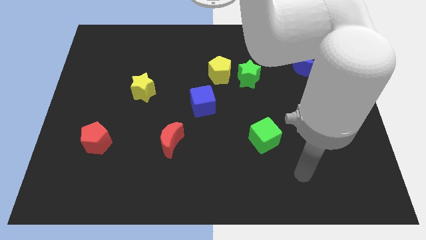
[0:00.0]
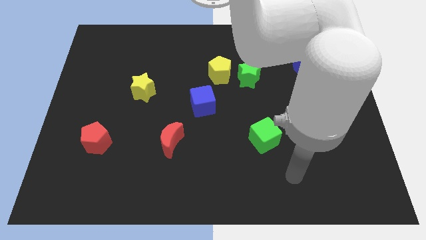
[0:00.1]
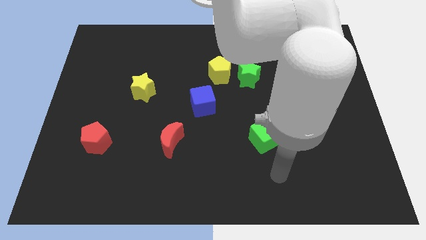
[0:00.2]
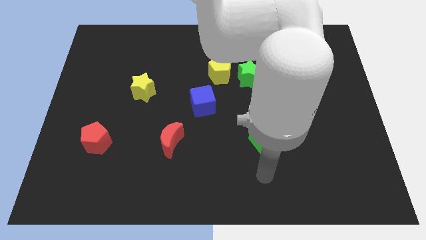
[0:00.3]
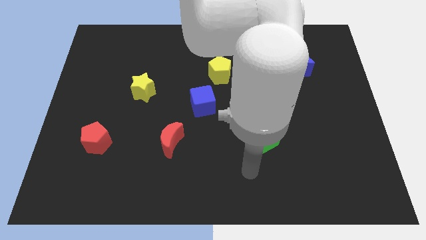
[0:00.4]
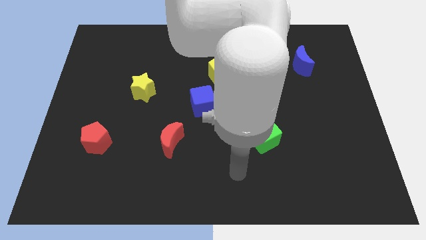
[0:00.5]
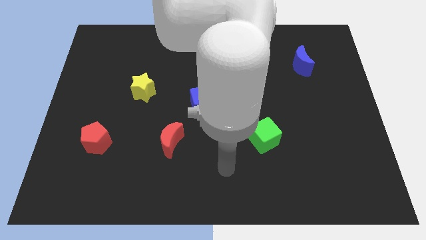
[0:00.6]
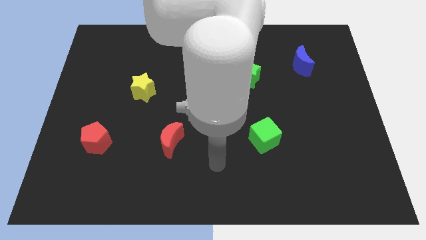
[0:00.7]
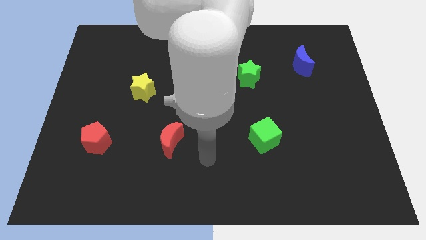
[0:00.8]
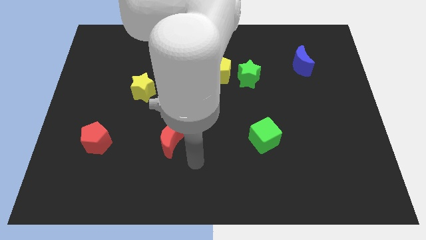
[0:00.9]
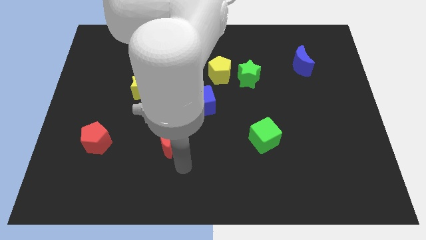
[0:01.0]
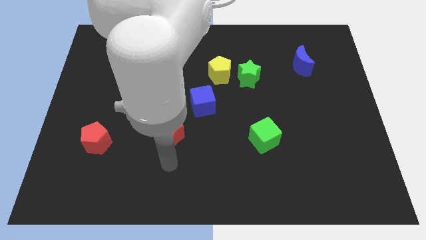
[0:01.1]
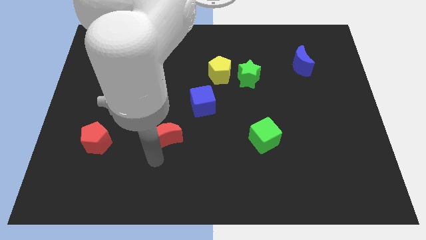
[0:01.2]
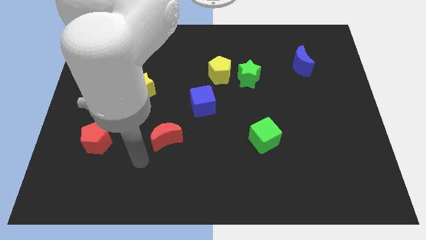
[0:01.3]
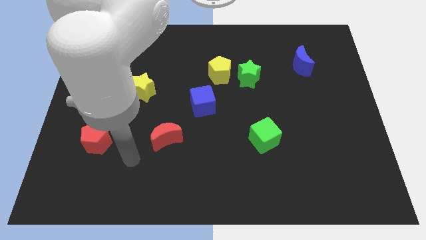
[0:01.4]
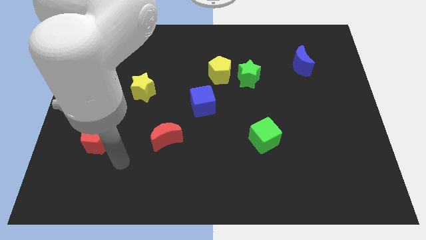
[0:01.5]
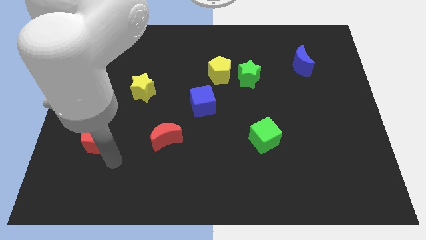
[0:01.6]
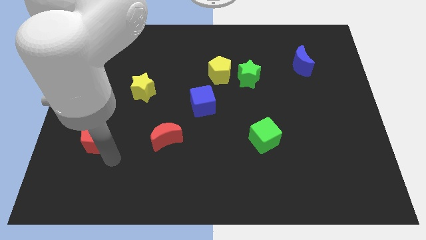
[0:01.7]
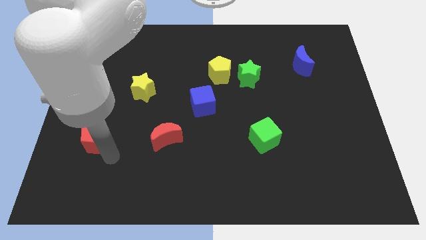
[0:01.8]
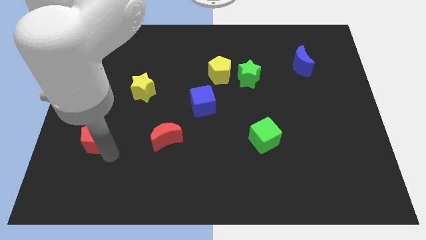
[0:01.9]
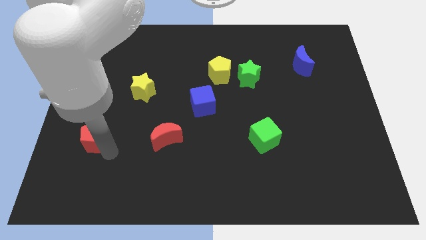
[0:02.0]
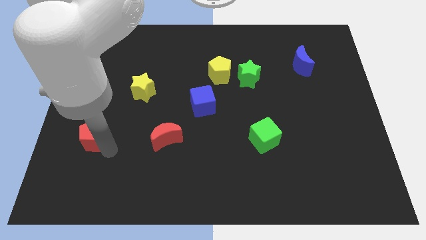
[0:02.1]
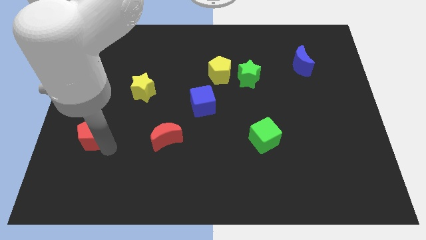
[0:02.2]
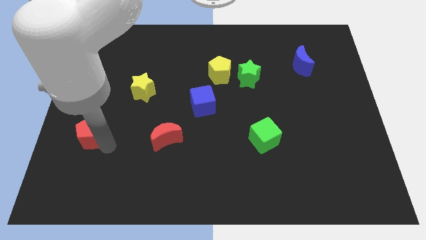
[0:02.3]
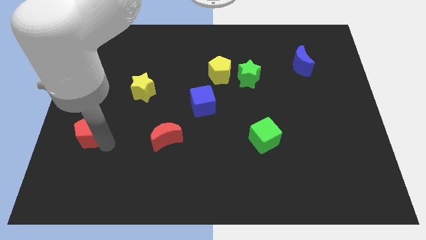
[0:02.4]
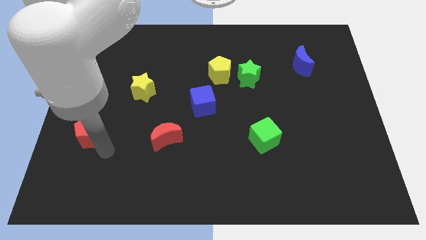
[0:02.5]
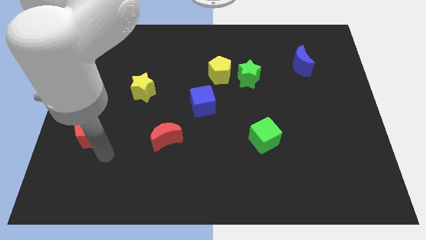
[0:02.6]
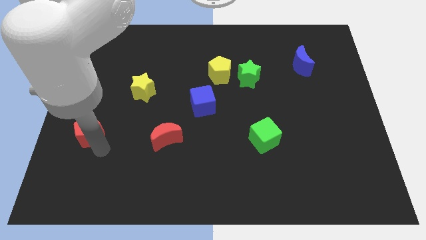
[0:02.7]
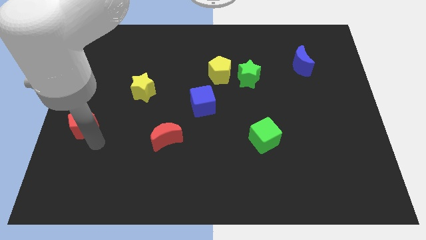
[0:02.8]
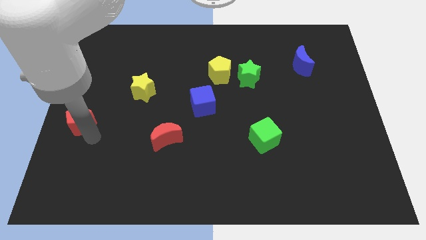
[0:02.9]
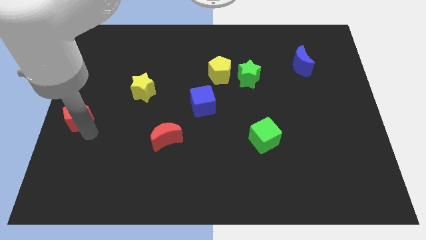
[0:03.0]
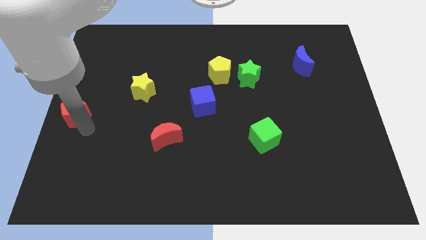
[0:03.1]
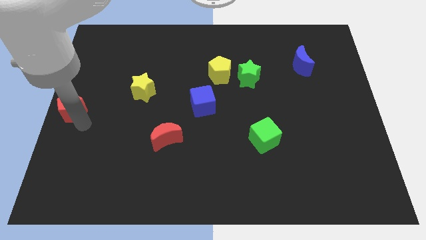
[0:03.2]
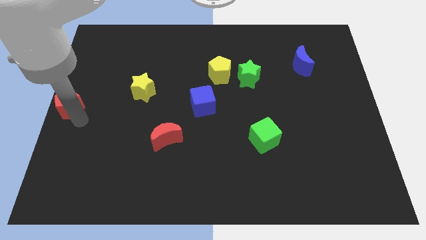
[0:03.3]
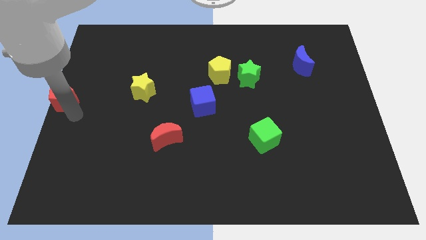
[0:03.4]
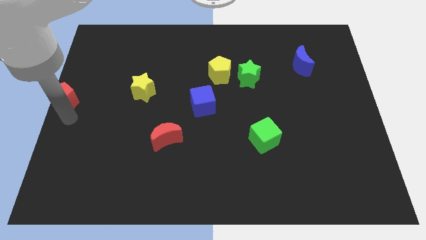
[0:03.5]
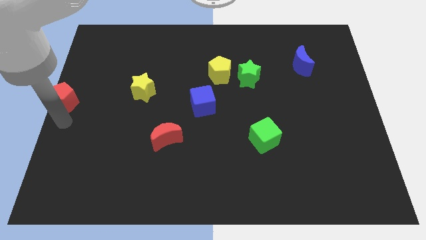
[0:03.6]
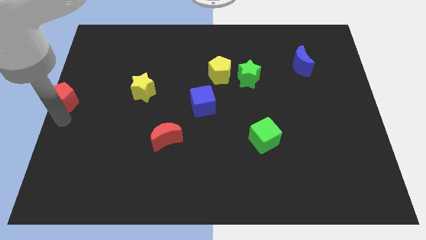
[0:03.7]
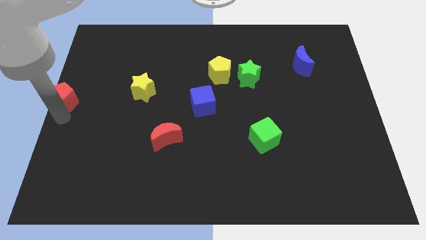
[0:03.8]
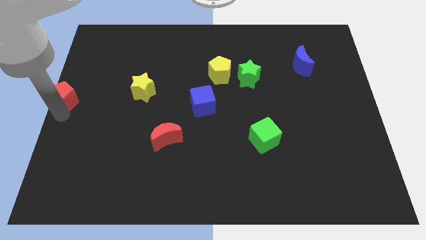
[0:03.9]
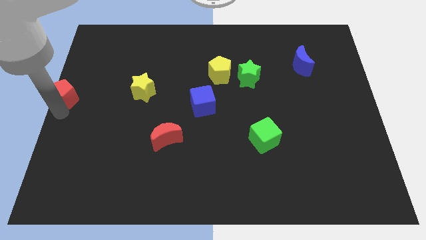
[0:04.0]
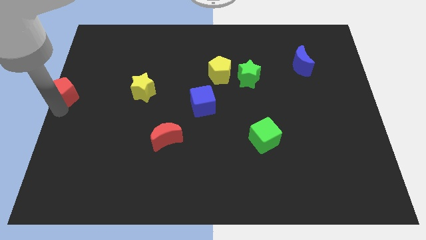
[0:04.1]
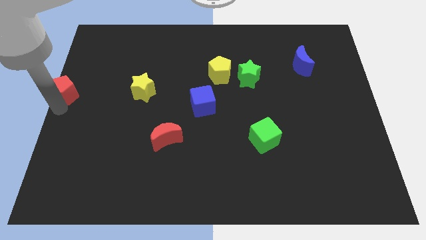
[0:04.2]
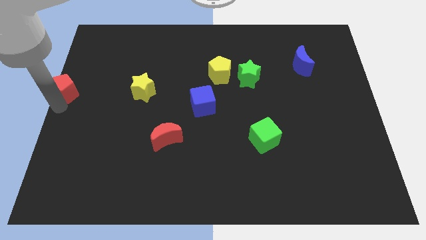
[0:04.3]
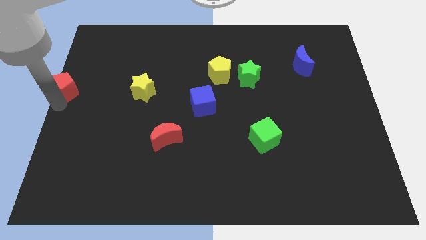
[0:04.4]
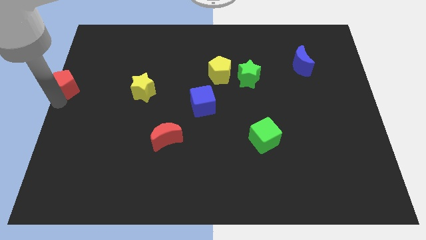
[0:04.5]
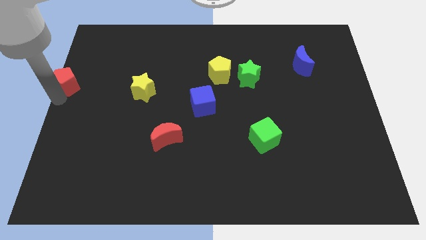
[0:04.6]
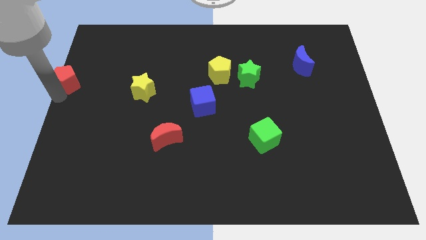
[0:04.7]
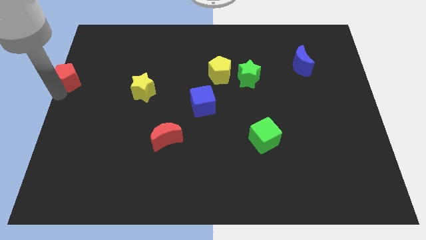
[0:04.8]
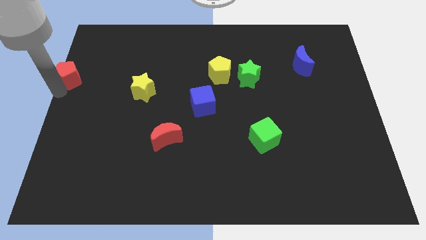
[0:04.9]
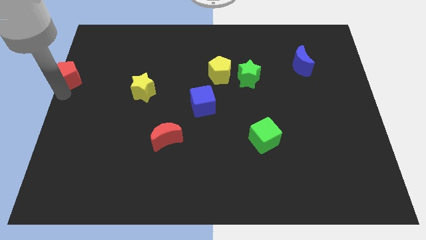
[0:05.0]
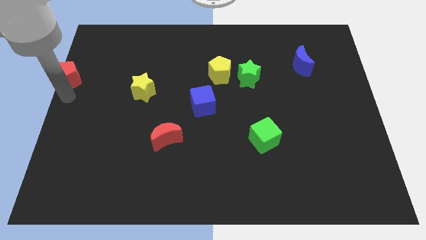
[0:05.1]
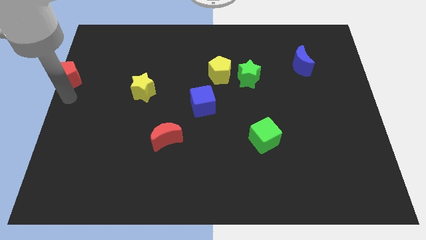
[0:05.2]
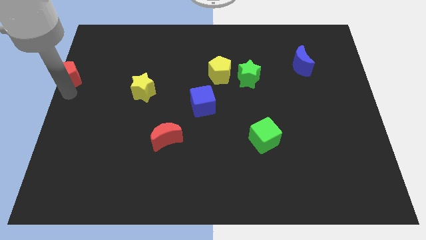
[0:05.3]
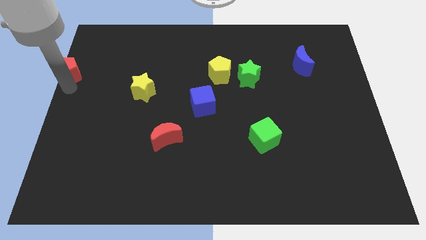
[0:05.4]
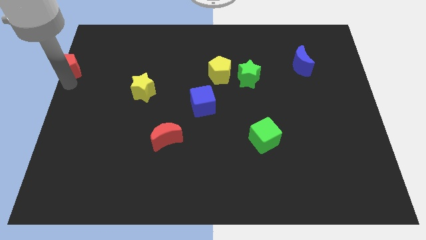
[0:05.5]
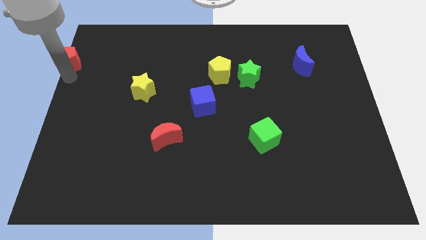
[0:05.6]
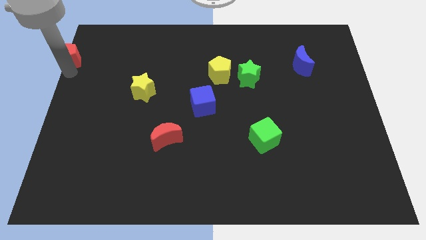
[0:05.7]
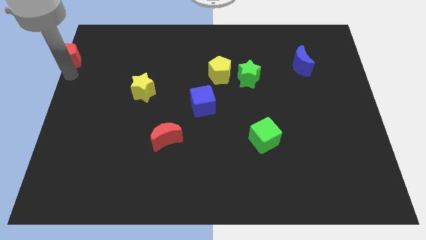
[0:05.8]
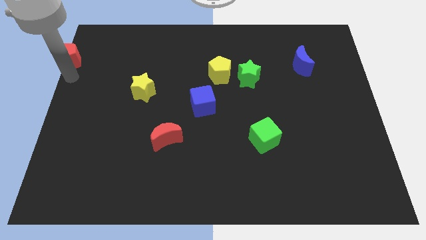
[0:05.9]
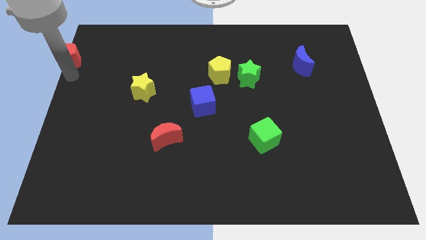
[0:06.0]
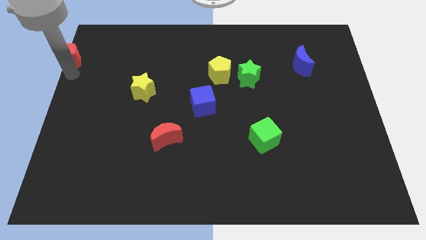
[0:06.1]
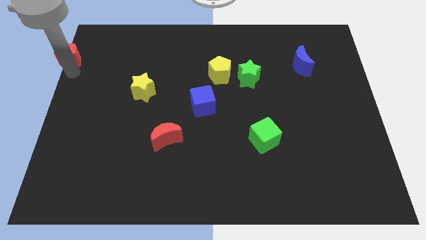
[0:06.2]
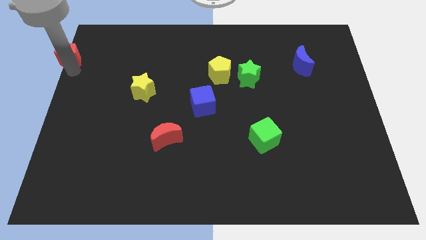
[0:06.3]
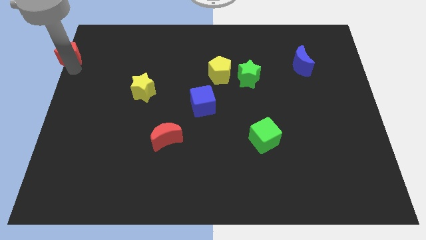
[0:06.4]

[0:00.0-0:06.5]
slide the red pentagon to the top left

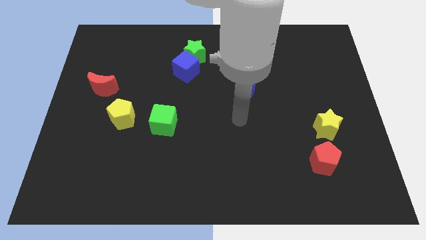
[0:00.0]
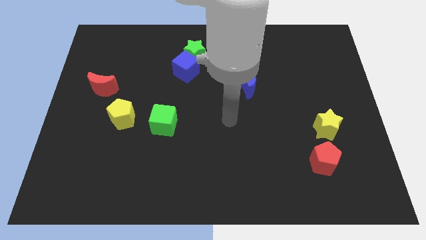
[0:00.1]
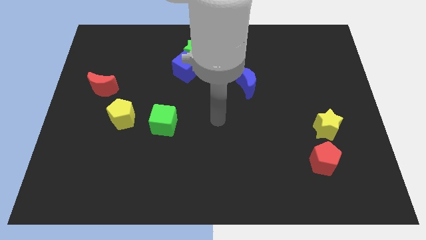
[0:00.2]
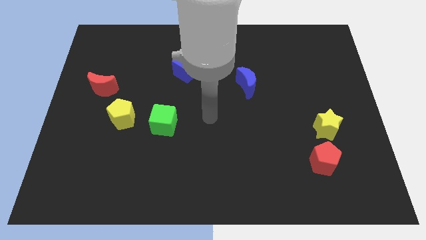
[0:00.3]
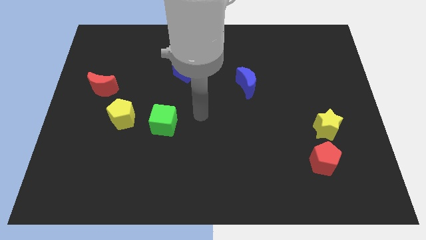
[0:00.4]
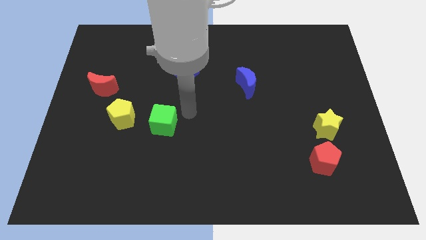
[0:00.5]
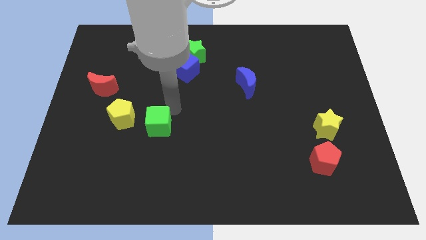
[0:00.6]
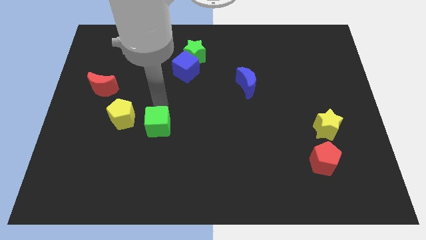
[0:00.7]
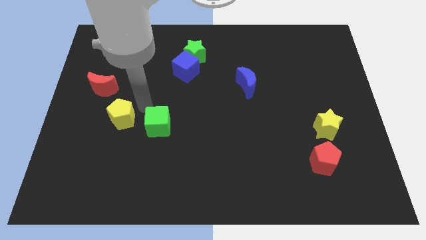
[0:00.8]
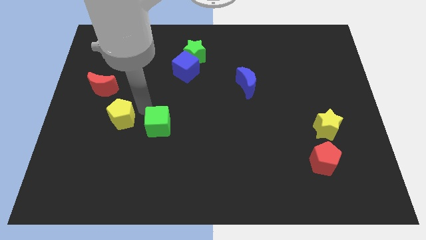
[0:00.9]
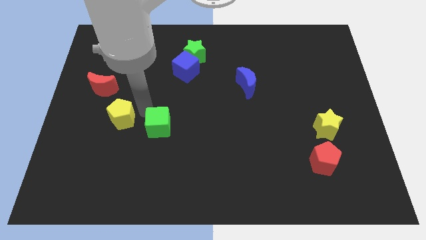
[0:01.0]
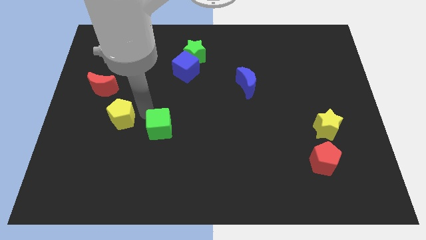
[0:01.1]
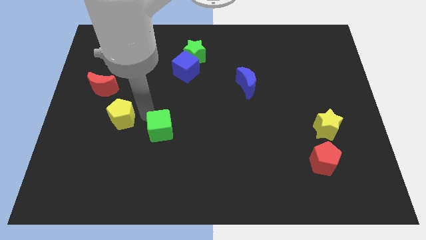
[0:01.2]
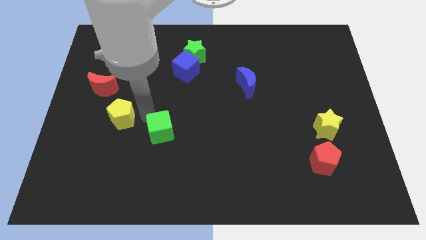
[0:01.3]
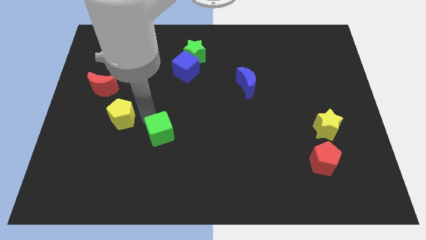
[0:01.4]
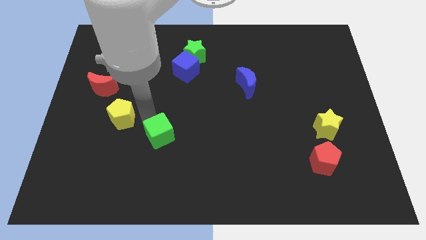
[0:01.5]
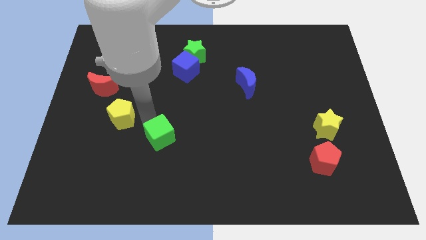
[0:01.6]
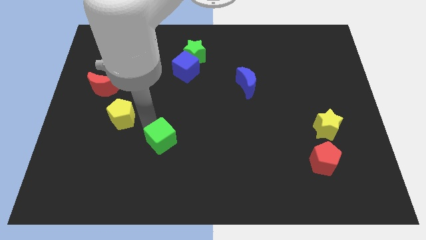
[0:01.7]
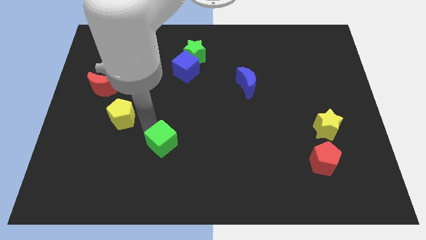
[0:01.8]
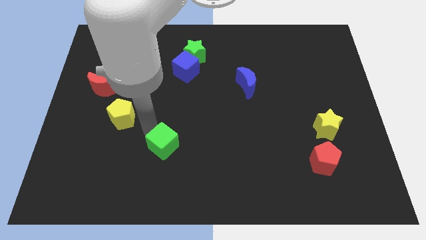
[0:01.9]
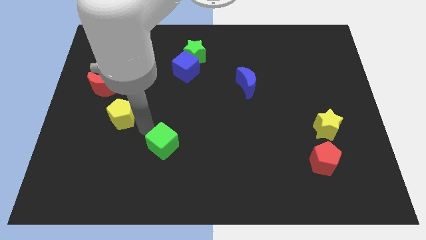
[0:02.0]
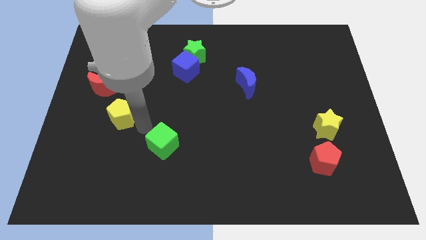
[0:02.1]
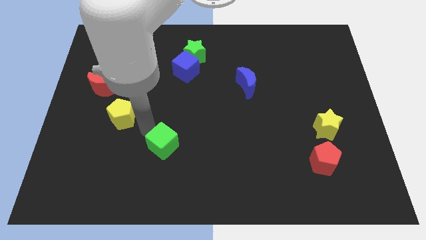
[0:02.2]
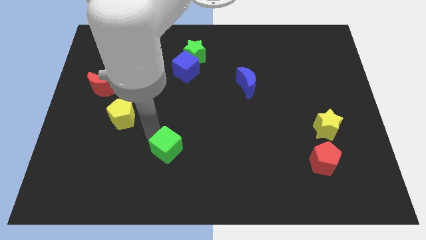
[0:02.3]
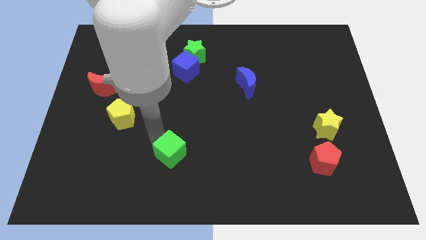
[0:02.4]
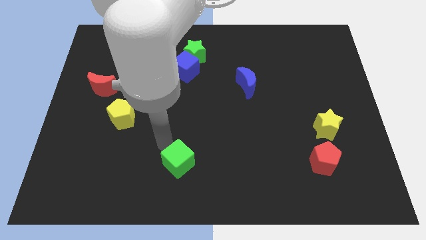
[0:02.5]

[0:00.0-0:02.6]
move the green cube to the bottom
